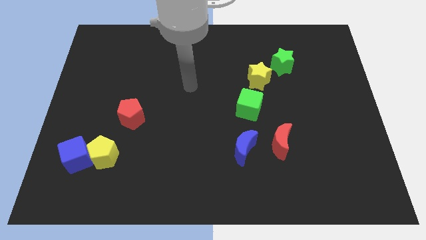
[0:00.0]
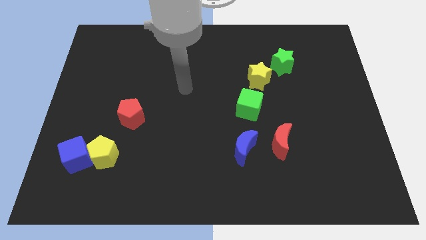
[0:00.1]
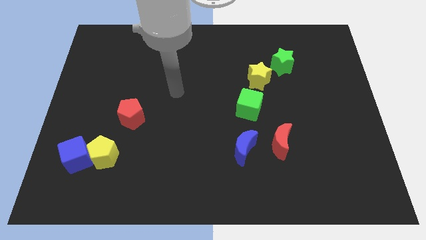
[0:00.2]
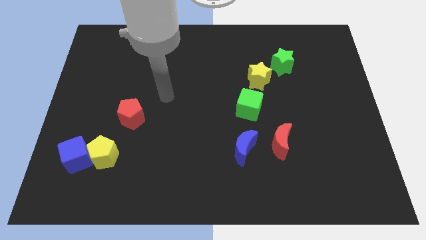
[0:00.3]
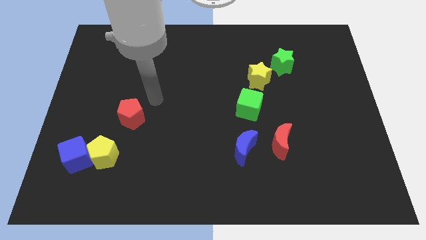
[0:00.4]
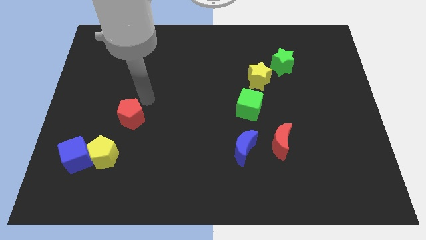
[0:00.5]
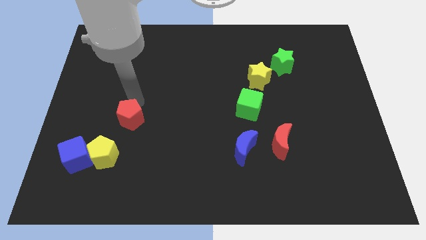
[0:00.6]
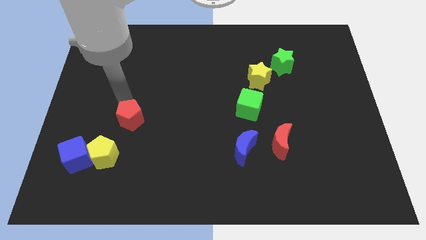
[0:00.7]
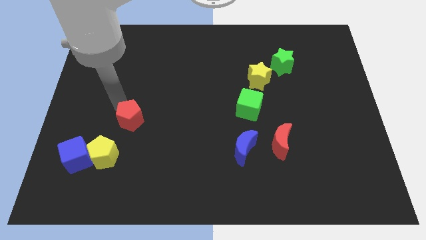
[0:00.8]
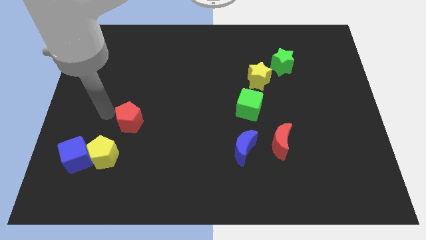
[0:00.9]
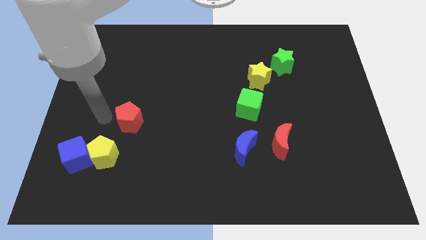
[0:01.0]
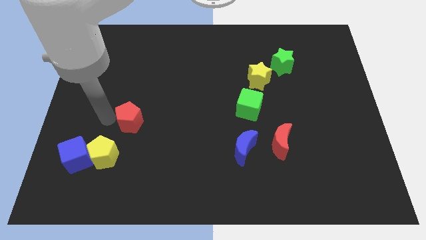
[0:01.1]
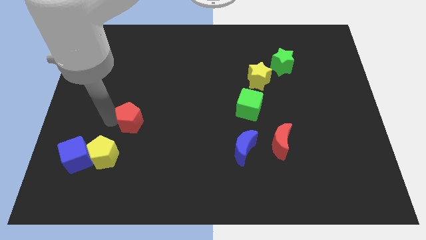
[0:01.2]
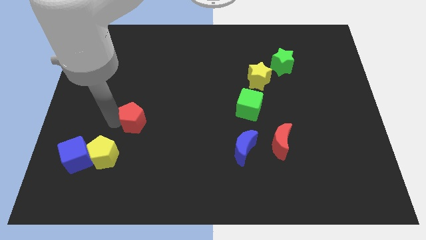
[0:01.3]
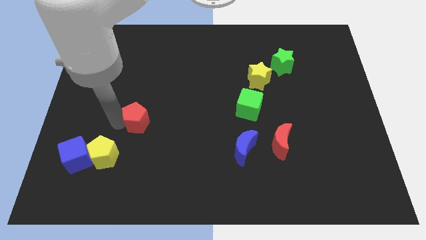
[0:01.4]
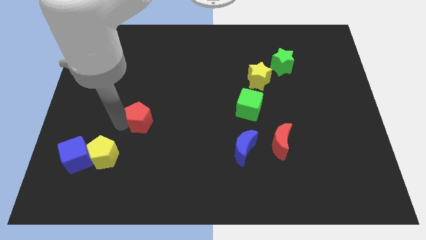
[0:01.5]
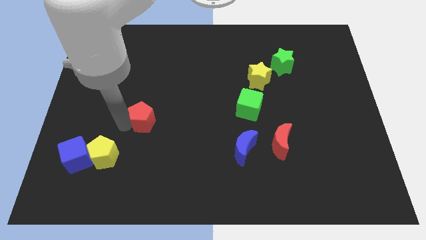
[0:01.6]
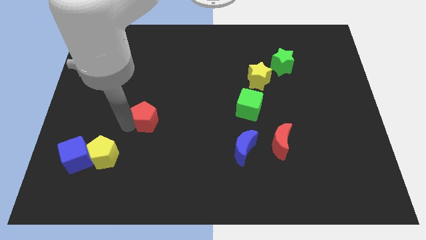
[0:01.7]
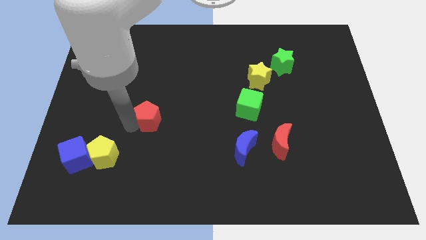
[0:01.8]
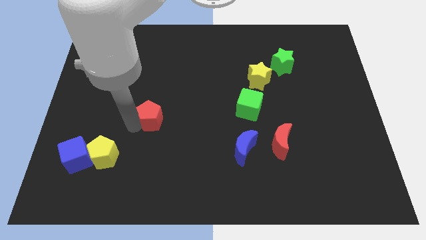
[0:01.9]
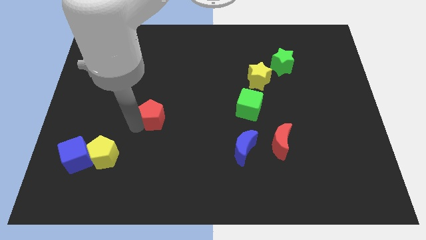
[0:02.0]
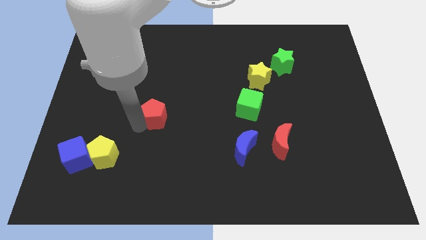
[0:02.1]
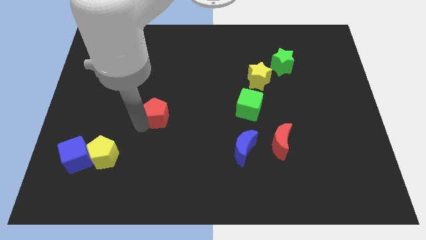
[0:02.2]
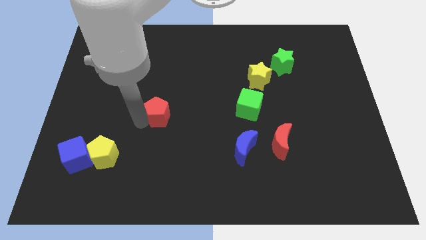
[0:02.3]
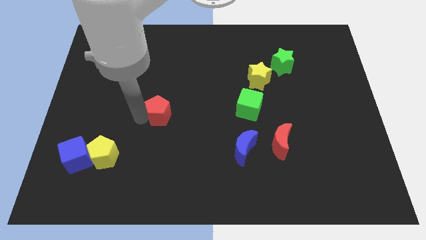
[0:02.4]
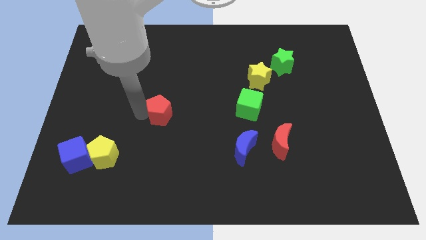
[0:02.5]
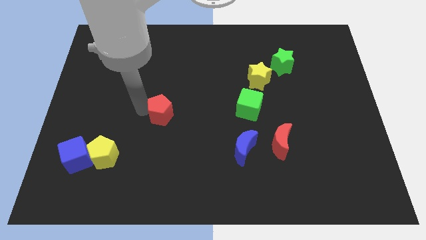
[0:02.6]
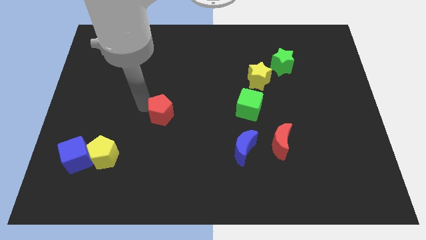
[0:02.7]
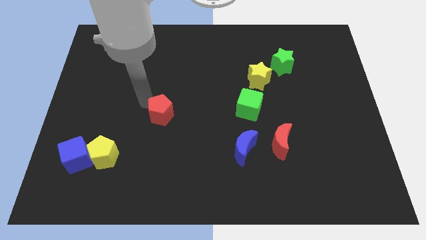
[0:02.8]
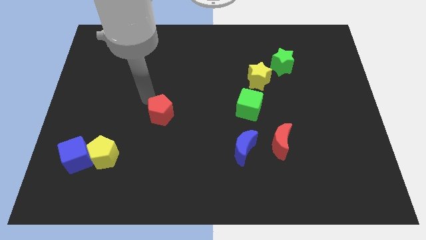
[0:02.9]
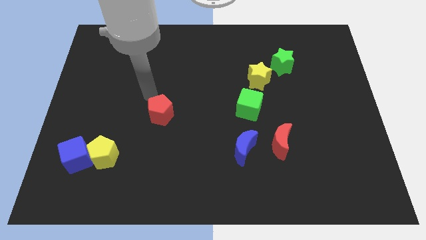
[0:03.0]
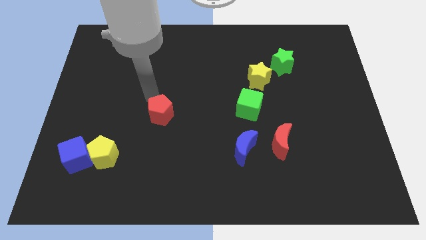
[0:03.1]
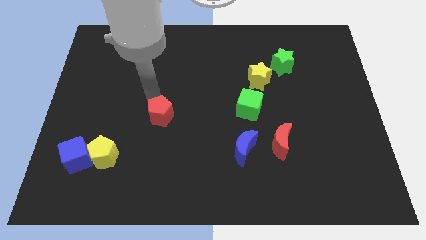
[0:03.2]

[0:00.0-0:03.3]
slide the red pentagon right slightly

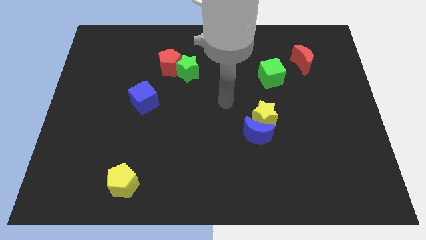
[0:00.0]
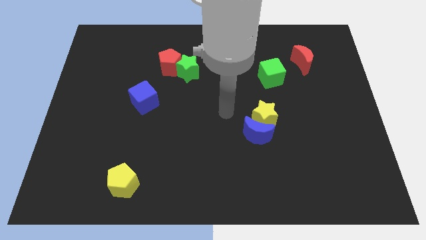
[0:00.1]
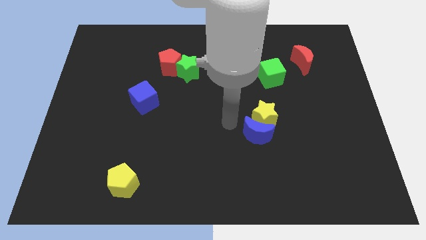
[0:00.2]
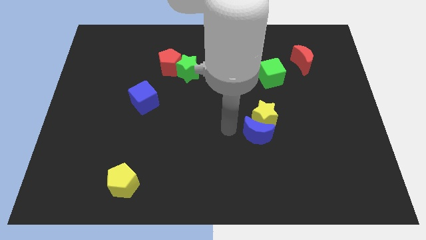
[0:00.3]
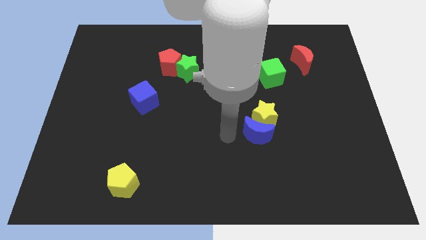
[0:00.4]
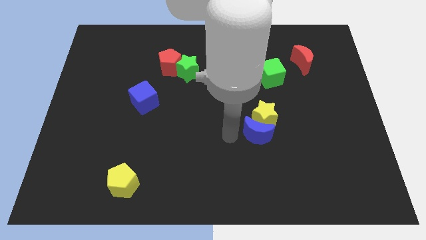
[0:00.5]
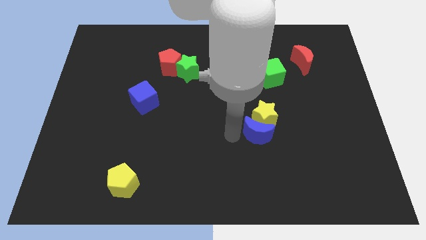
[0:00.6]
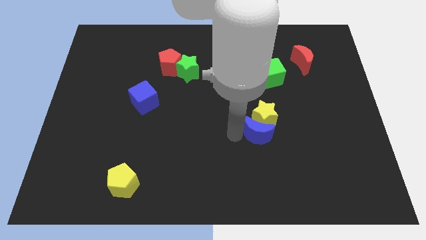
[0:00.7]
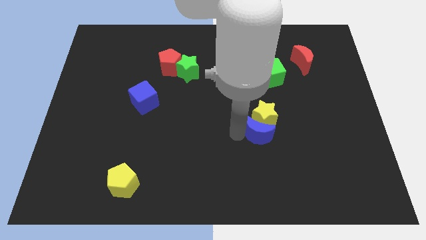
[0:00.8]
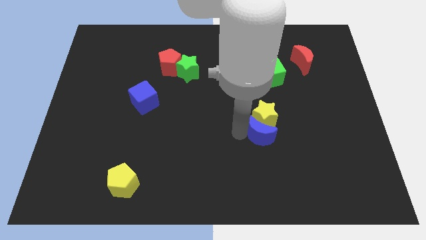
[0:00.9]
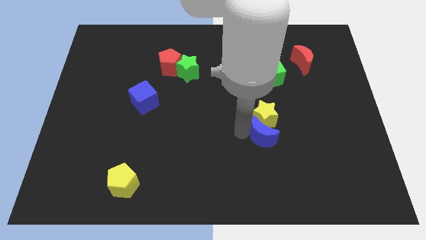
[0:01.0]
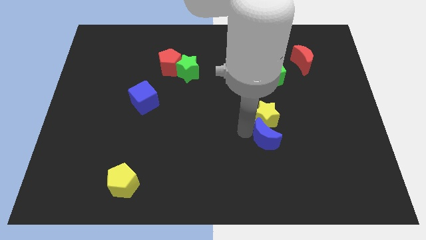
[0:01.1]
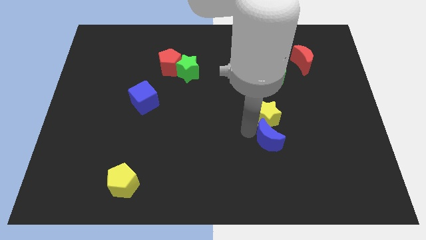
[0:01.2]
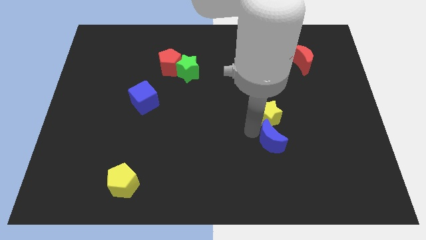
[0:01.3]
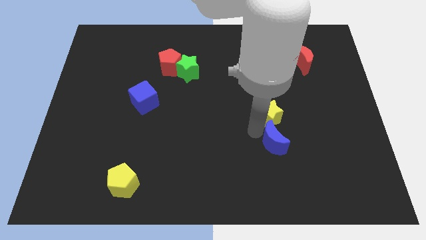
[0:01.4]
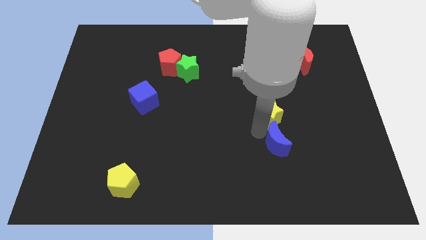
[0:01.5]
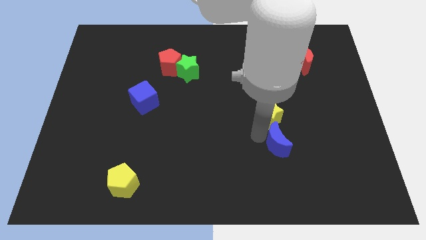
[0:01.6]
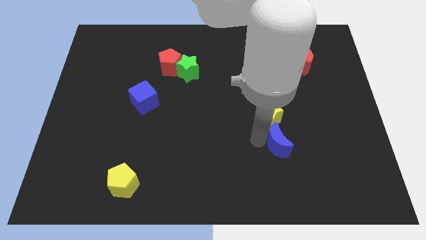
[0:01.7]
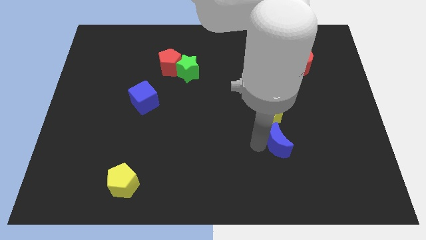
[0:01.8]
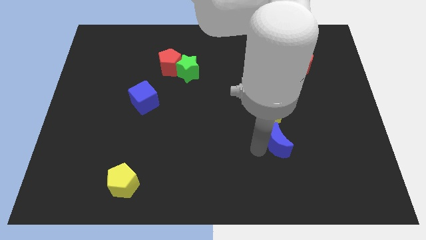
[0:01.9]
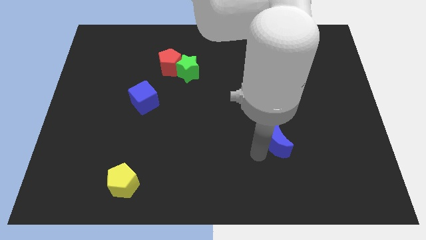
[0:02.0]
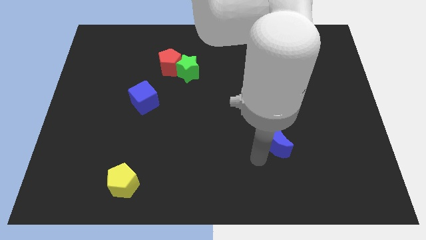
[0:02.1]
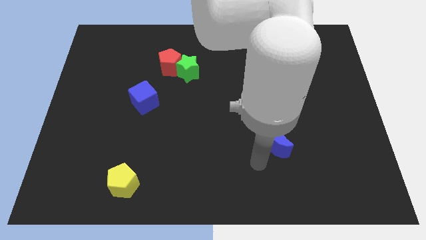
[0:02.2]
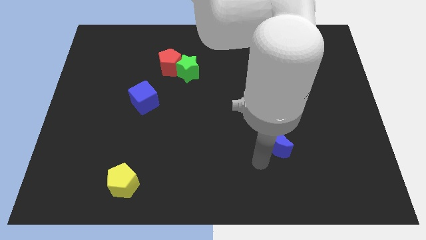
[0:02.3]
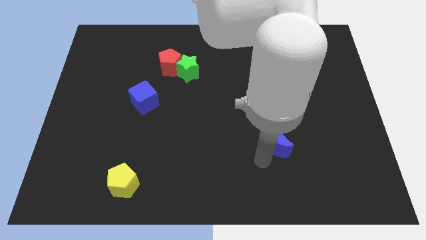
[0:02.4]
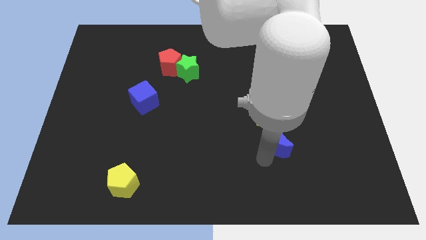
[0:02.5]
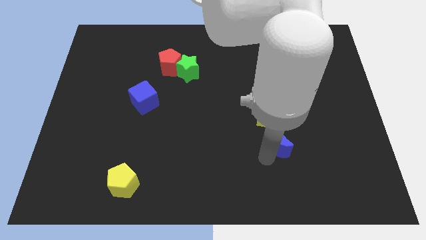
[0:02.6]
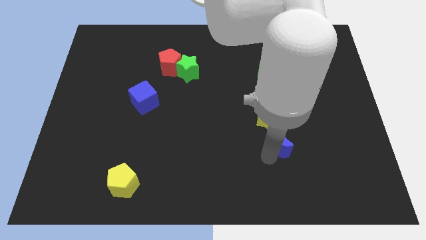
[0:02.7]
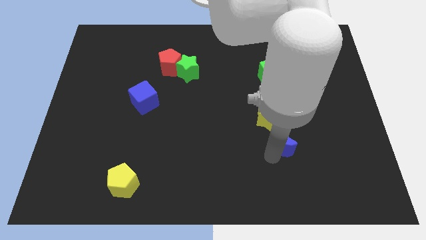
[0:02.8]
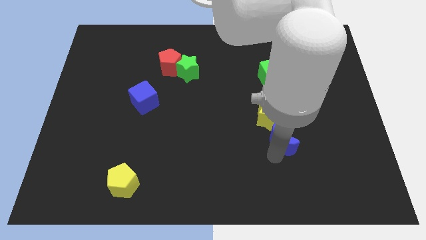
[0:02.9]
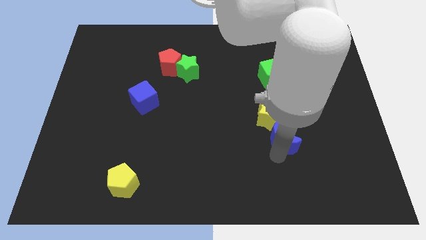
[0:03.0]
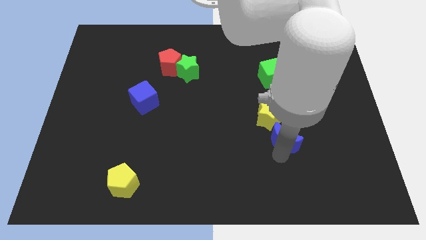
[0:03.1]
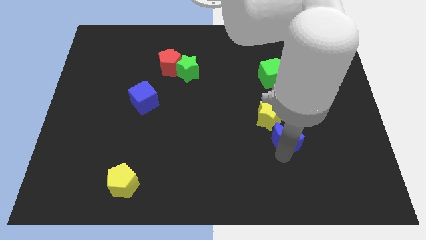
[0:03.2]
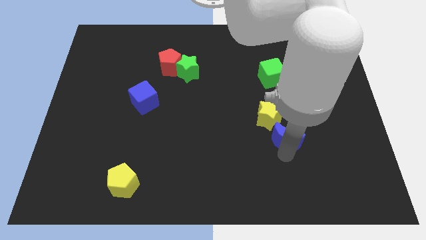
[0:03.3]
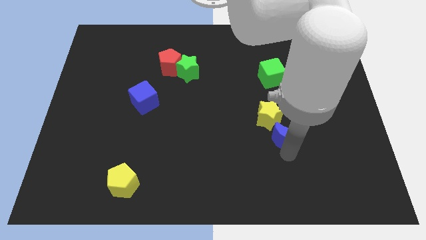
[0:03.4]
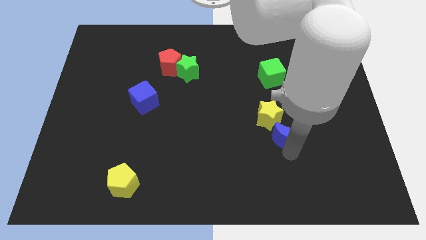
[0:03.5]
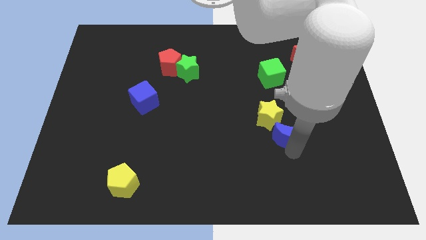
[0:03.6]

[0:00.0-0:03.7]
slide the blue moon a little right

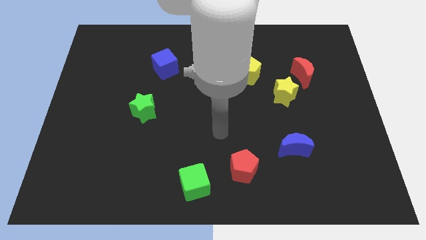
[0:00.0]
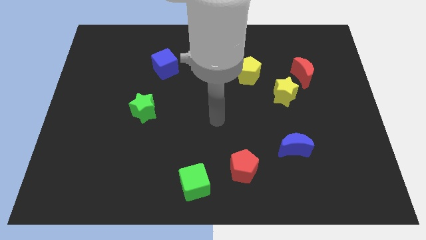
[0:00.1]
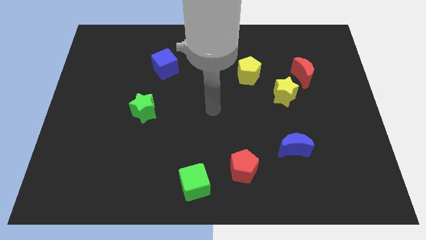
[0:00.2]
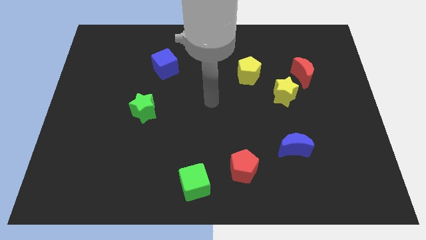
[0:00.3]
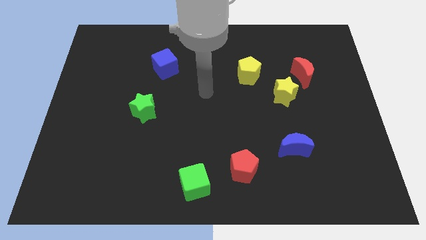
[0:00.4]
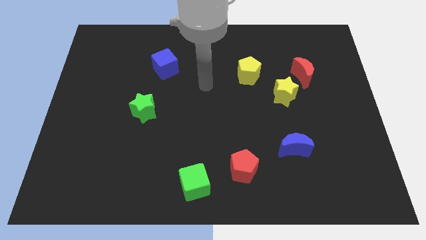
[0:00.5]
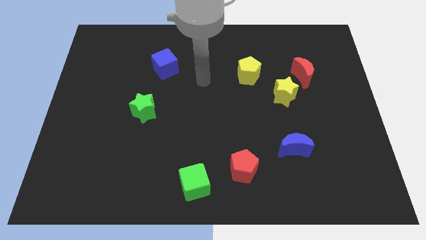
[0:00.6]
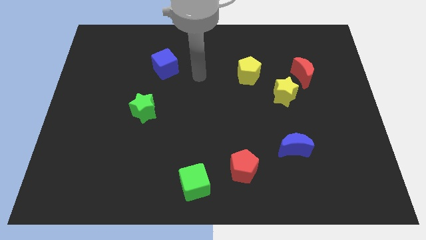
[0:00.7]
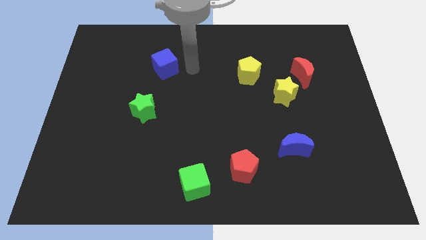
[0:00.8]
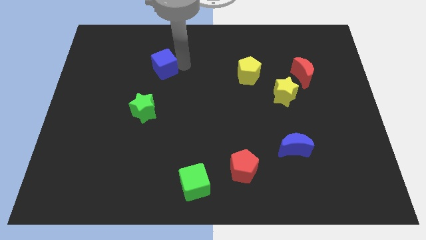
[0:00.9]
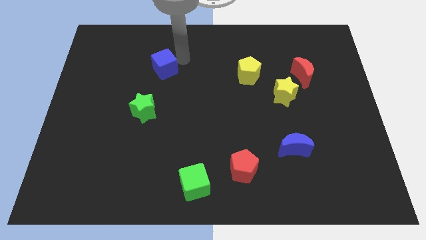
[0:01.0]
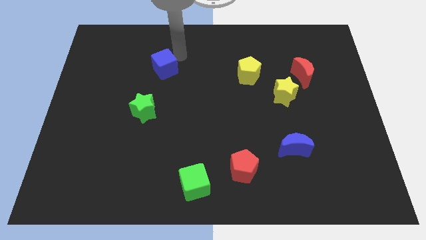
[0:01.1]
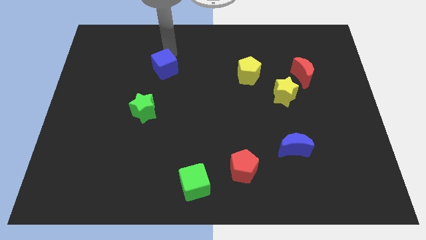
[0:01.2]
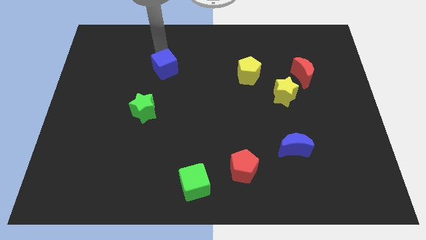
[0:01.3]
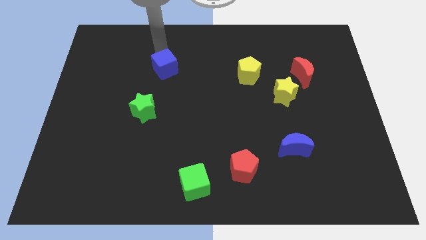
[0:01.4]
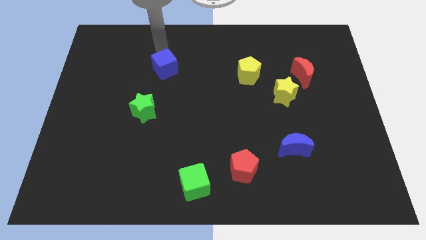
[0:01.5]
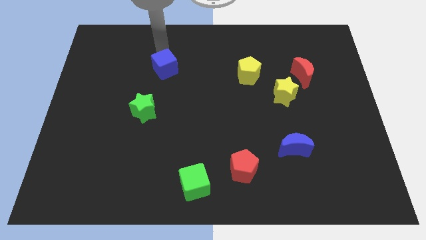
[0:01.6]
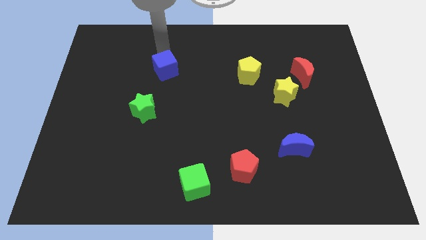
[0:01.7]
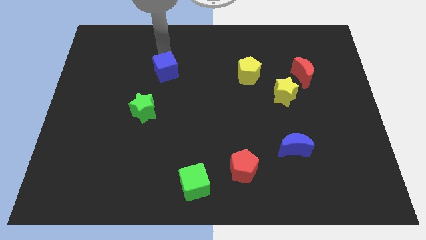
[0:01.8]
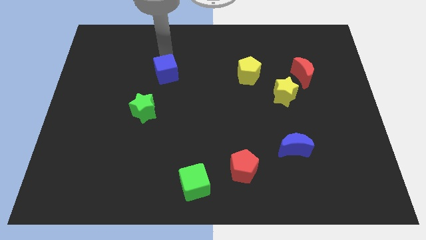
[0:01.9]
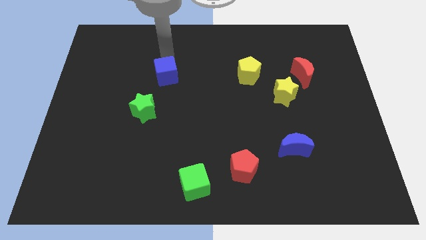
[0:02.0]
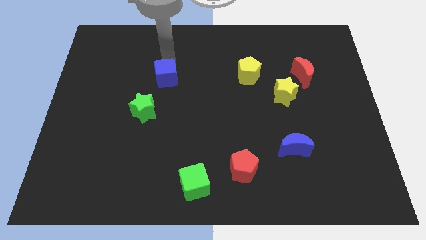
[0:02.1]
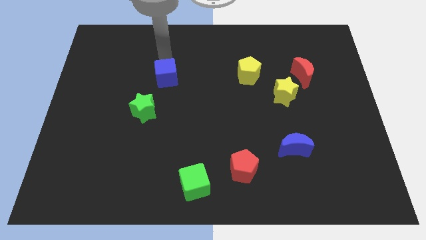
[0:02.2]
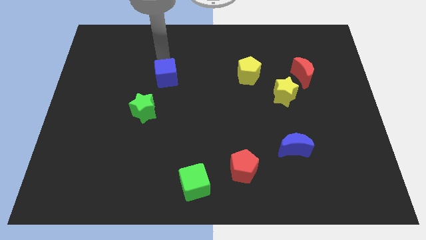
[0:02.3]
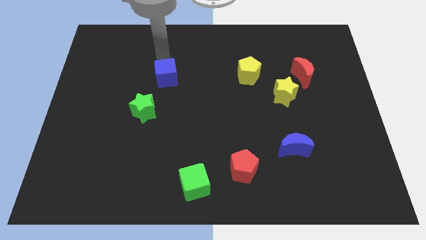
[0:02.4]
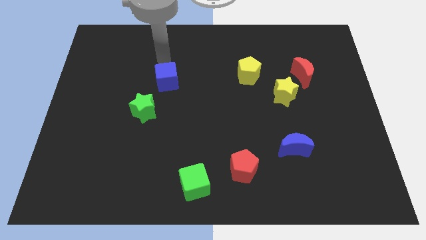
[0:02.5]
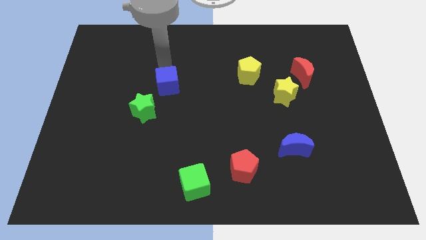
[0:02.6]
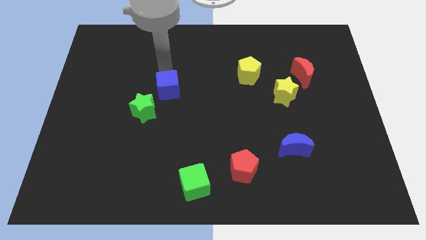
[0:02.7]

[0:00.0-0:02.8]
slide the blue cube down a little
